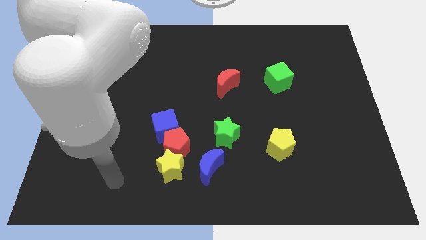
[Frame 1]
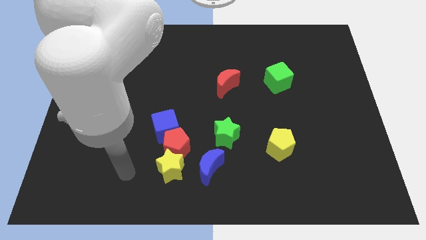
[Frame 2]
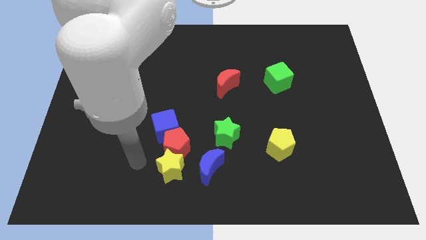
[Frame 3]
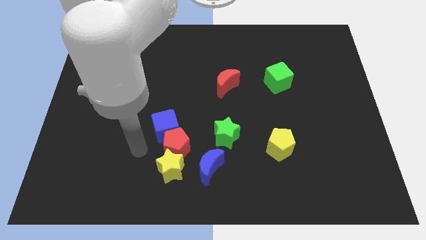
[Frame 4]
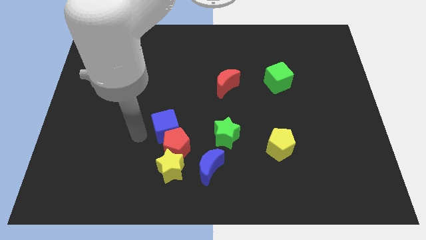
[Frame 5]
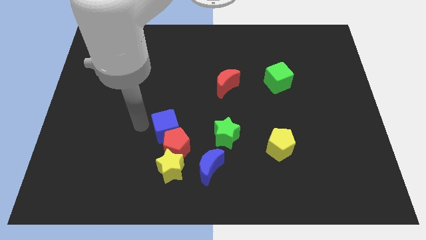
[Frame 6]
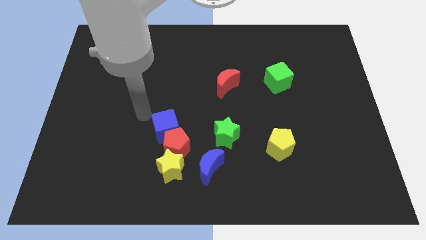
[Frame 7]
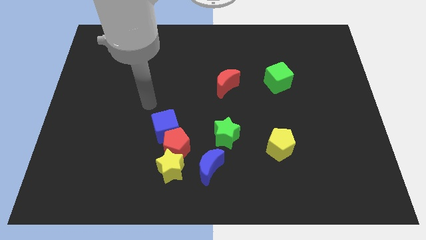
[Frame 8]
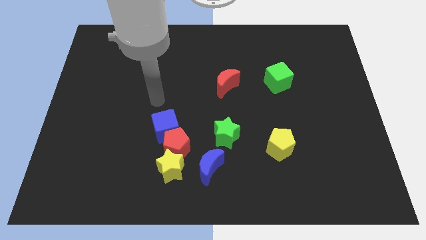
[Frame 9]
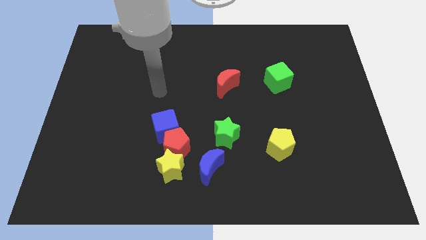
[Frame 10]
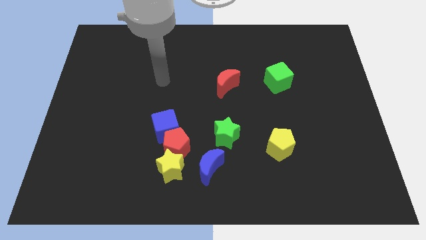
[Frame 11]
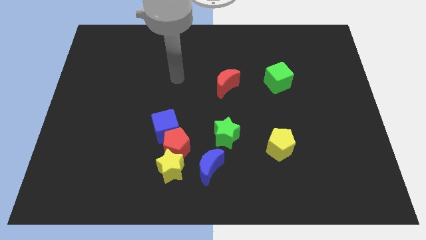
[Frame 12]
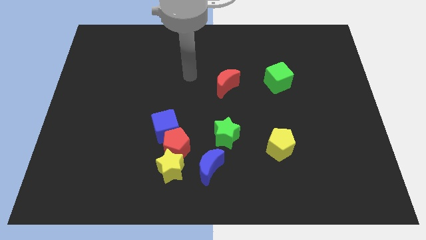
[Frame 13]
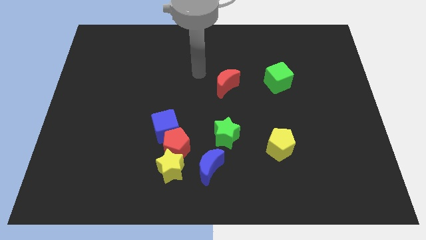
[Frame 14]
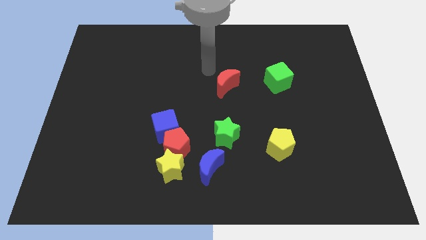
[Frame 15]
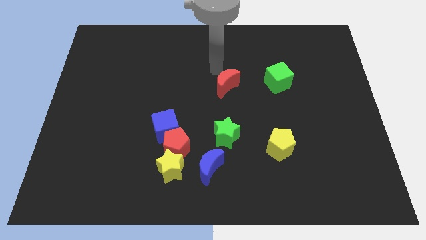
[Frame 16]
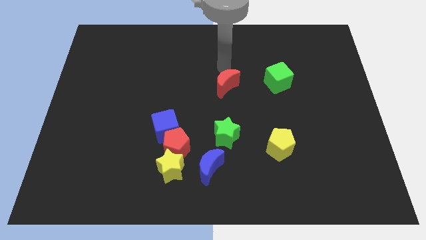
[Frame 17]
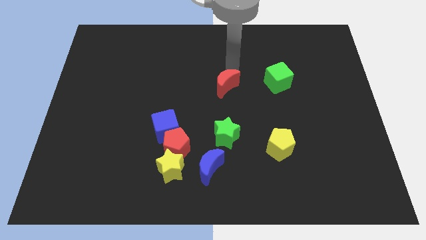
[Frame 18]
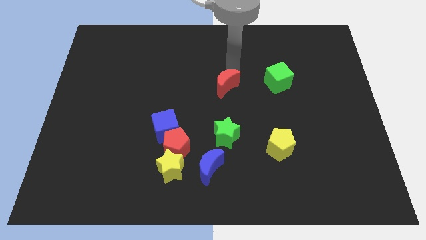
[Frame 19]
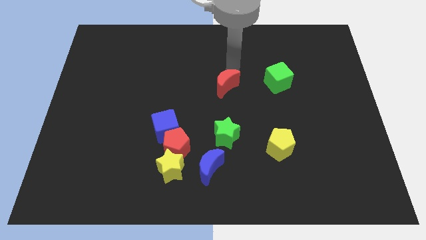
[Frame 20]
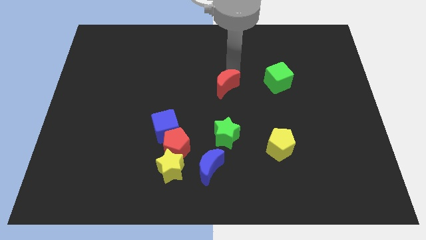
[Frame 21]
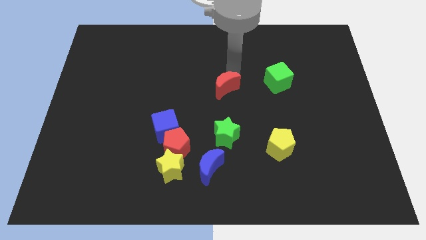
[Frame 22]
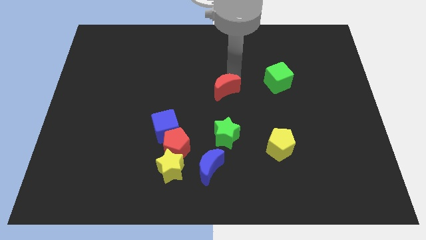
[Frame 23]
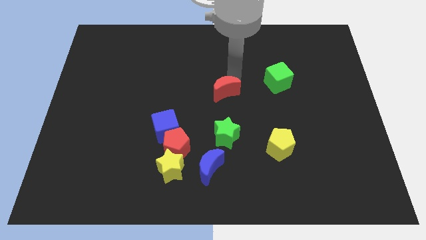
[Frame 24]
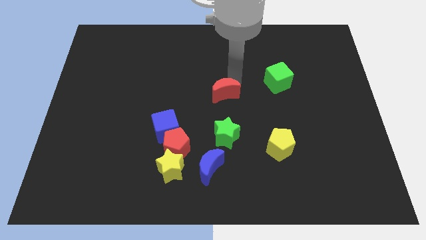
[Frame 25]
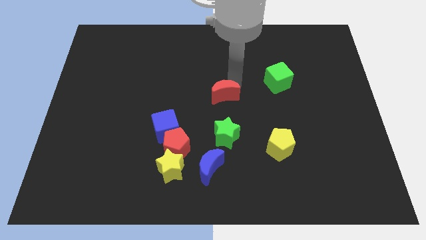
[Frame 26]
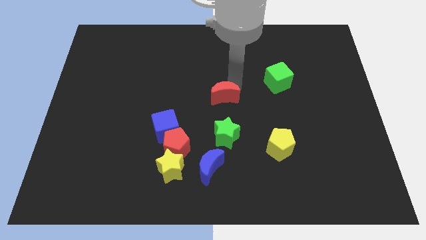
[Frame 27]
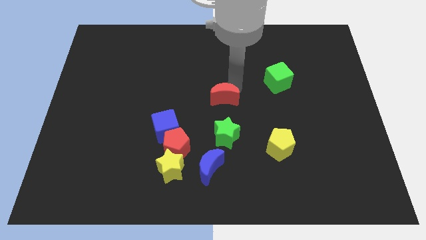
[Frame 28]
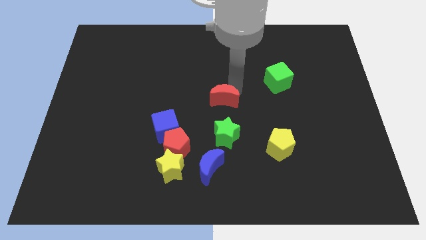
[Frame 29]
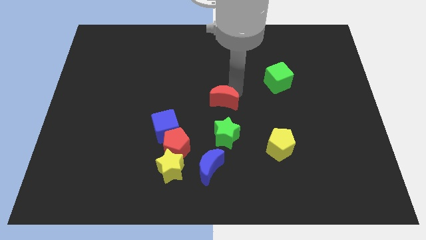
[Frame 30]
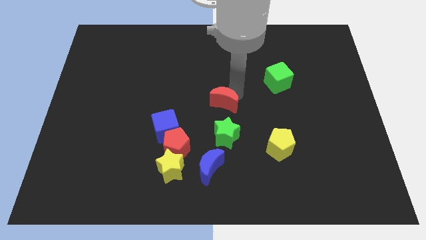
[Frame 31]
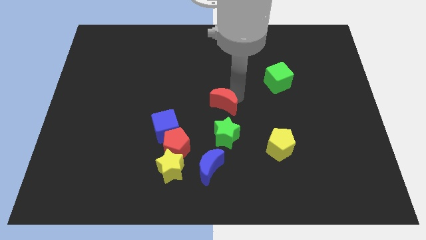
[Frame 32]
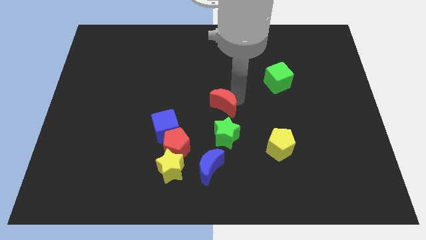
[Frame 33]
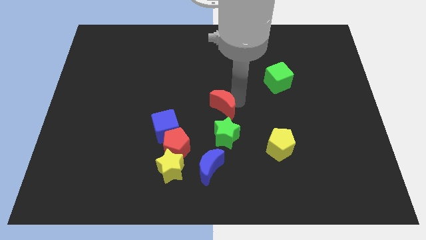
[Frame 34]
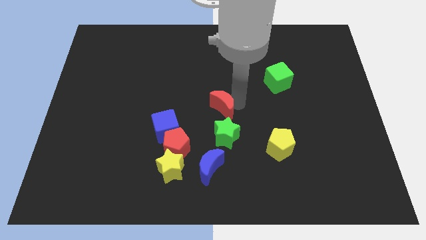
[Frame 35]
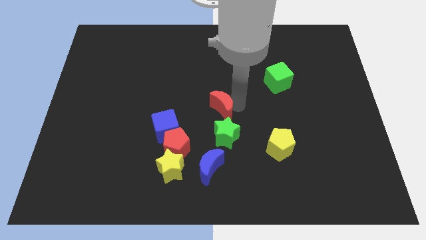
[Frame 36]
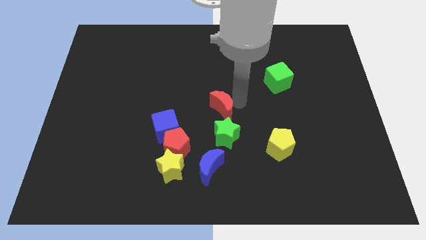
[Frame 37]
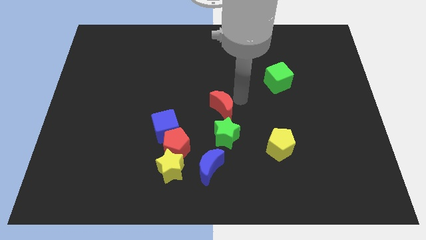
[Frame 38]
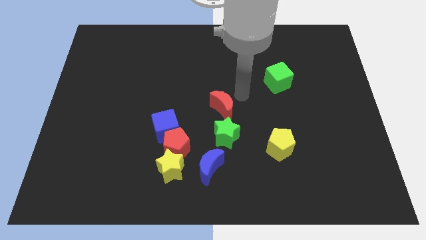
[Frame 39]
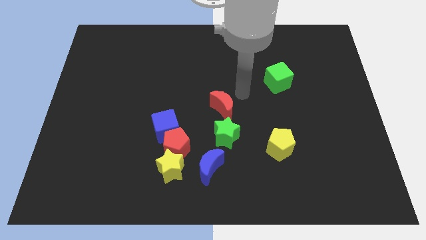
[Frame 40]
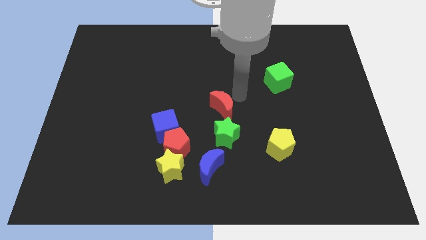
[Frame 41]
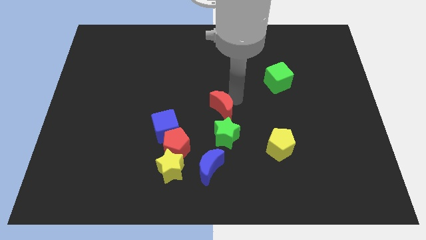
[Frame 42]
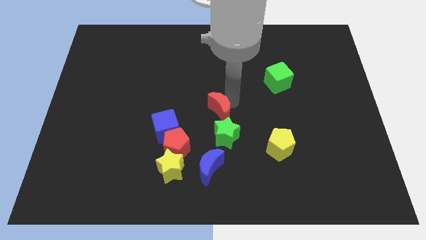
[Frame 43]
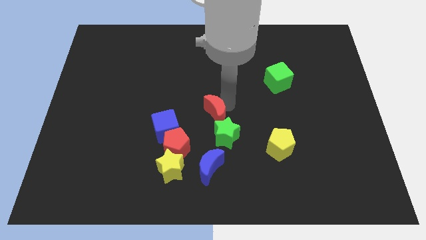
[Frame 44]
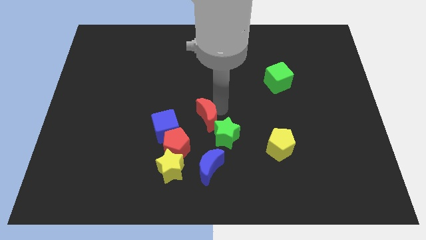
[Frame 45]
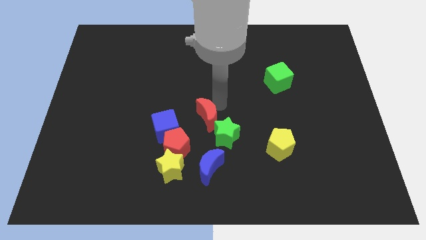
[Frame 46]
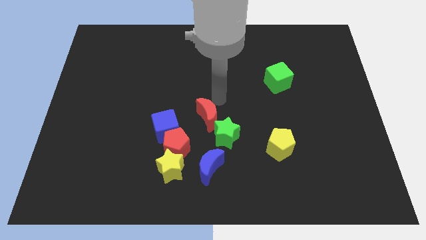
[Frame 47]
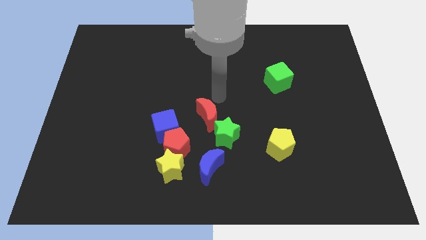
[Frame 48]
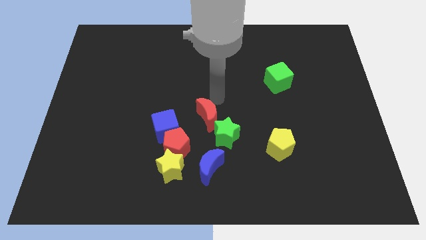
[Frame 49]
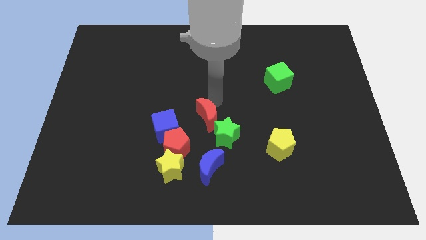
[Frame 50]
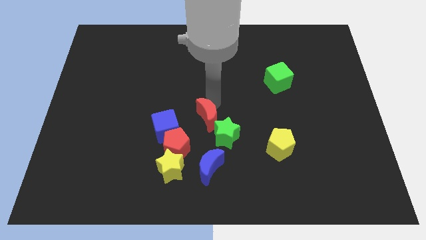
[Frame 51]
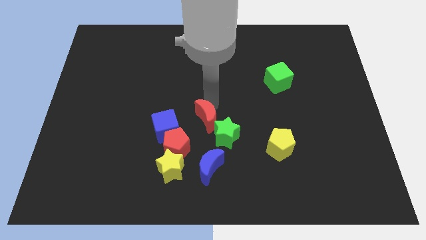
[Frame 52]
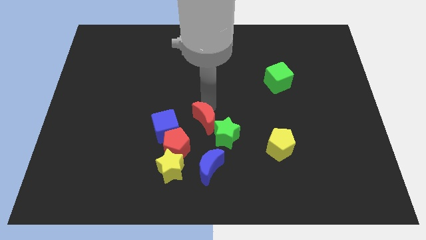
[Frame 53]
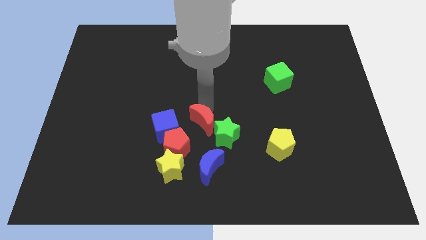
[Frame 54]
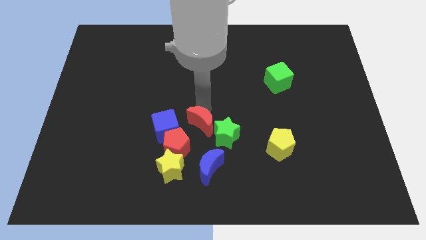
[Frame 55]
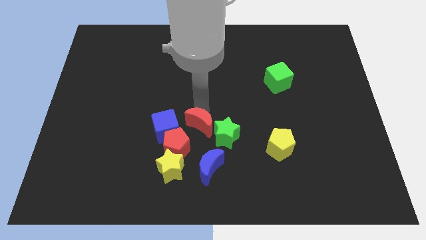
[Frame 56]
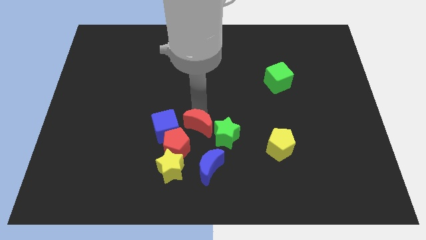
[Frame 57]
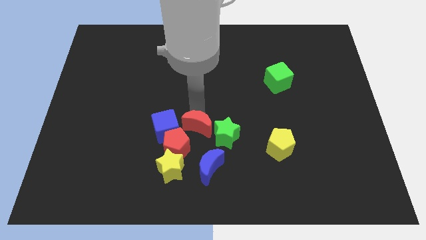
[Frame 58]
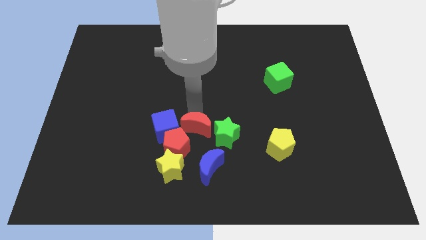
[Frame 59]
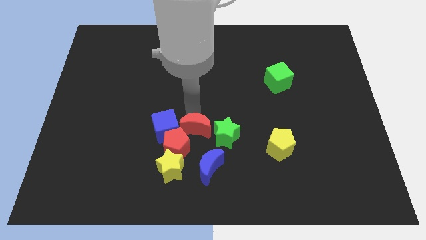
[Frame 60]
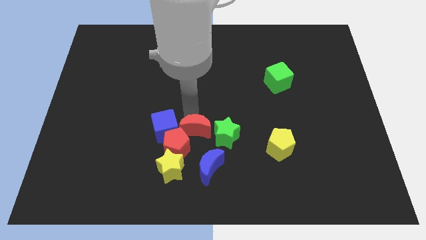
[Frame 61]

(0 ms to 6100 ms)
put the red moon to the red pentagon

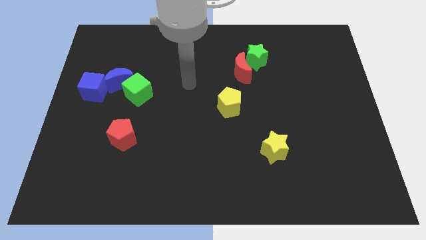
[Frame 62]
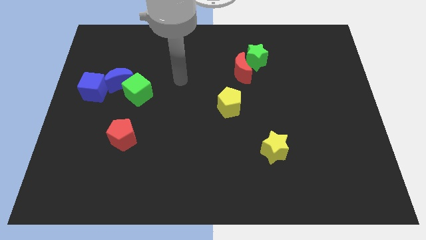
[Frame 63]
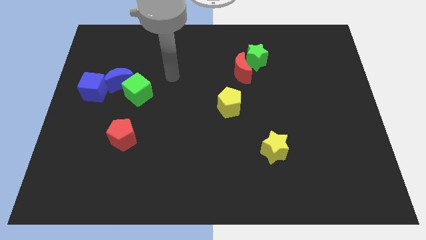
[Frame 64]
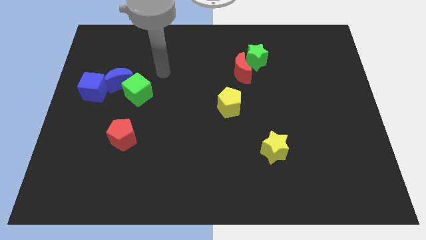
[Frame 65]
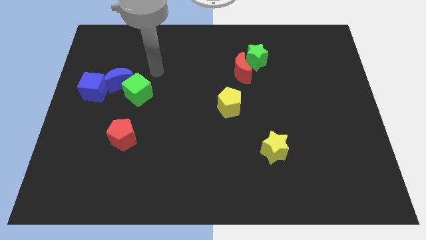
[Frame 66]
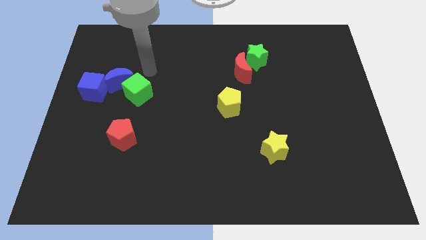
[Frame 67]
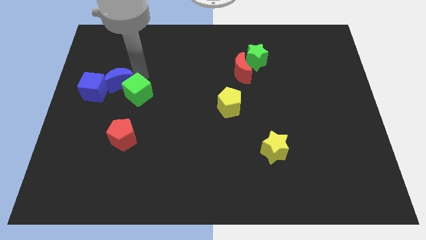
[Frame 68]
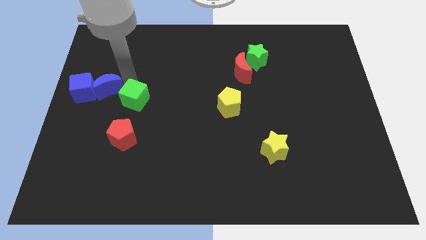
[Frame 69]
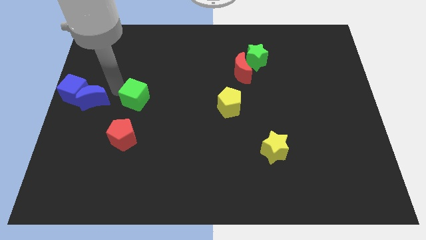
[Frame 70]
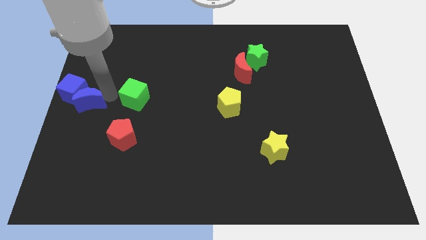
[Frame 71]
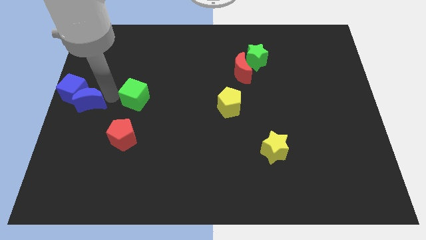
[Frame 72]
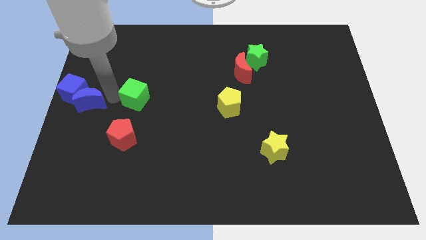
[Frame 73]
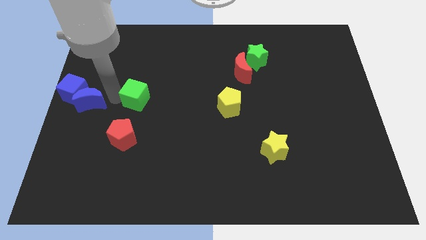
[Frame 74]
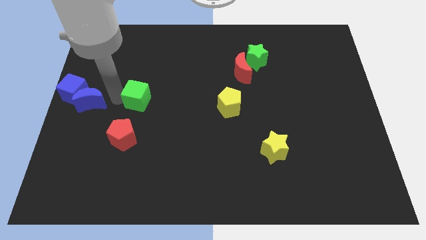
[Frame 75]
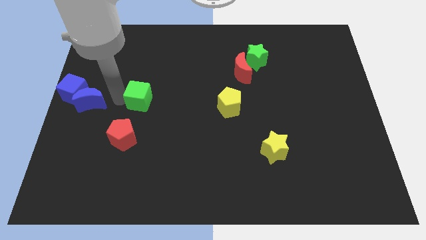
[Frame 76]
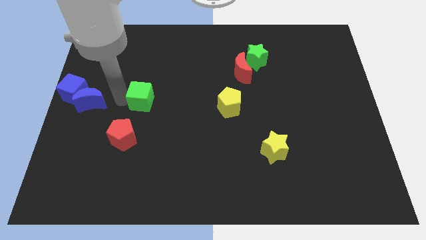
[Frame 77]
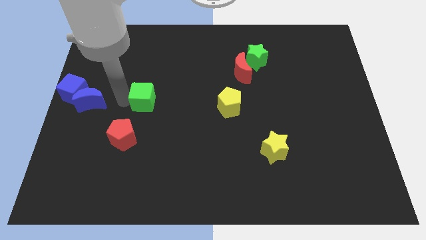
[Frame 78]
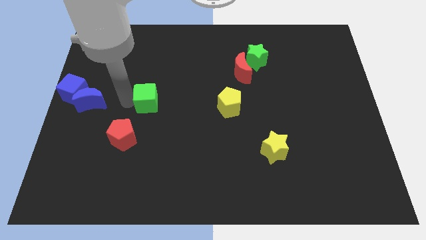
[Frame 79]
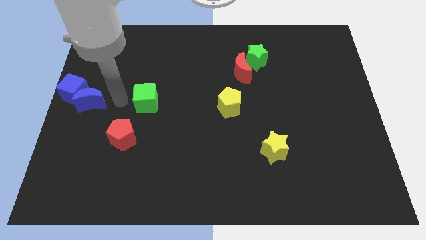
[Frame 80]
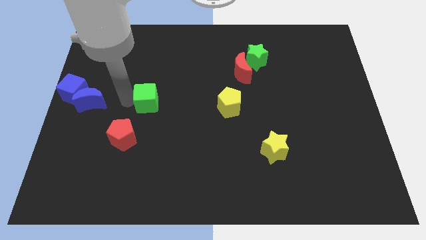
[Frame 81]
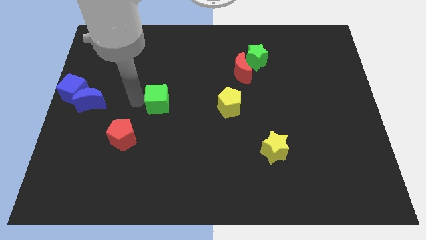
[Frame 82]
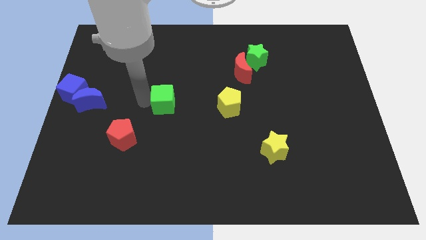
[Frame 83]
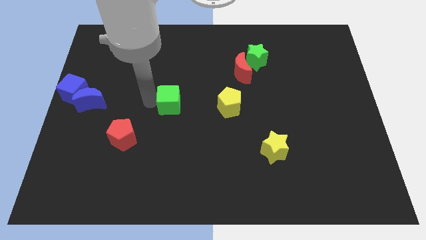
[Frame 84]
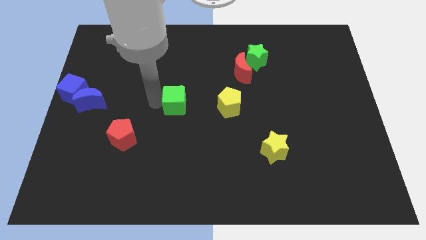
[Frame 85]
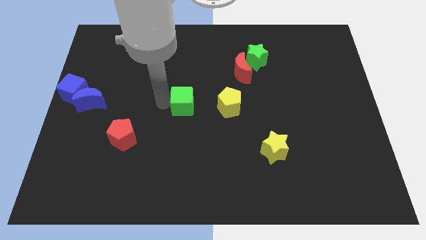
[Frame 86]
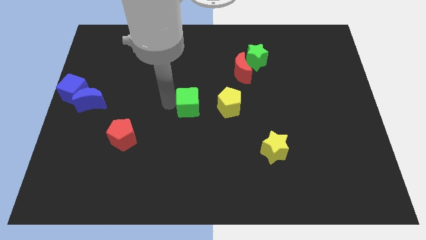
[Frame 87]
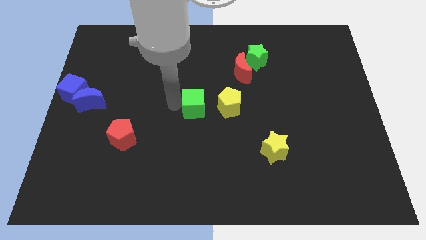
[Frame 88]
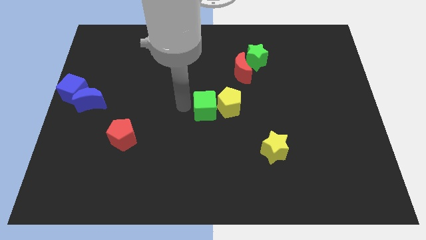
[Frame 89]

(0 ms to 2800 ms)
move the green cube to the yellow pentagon
